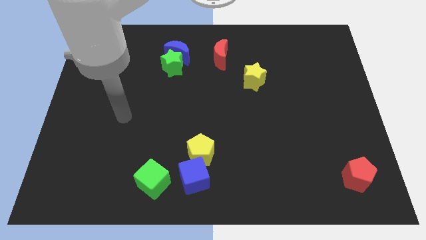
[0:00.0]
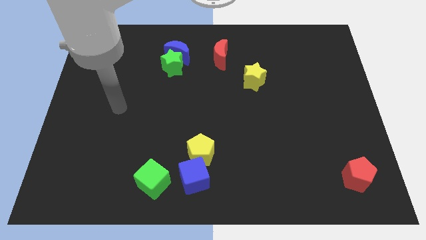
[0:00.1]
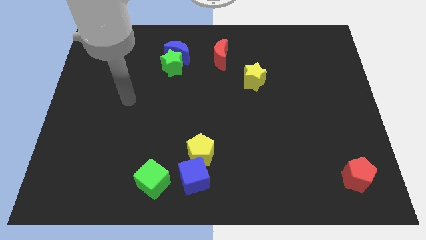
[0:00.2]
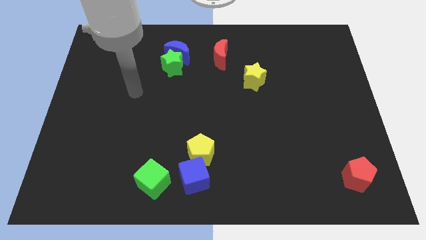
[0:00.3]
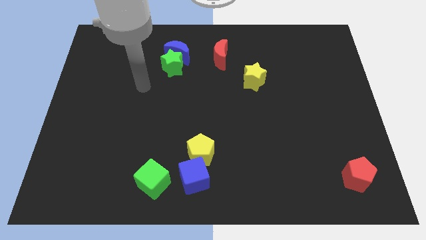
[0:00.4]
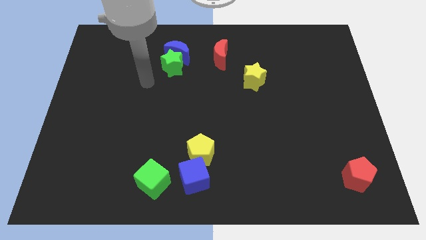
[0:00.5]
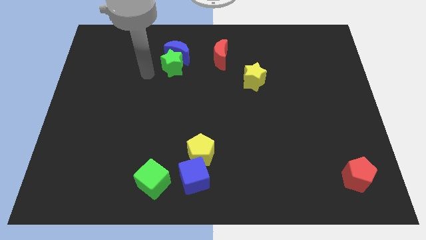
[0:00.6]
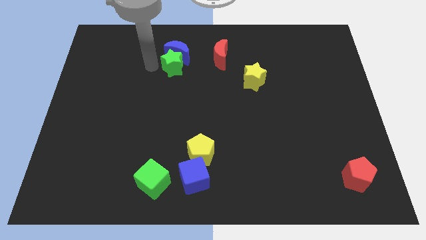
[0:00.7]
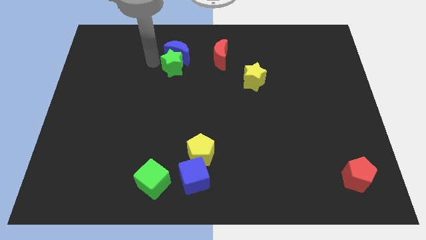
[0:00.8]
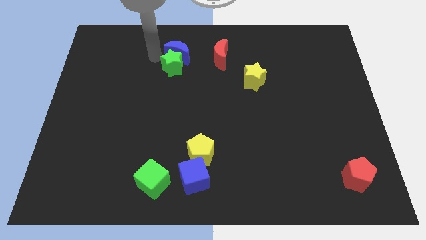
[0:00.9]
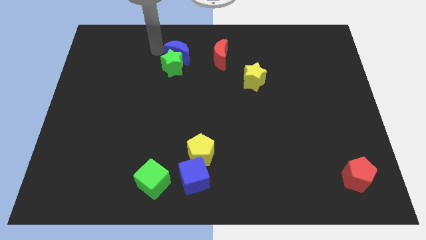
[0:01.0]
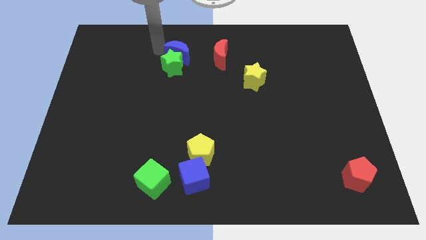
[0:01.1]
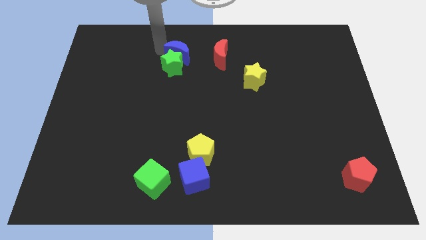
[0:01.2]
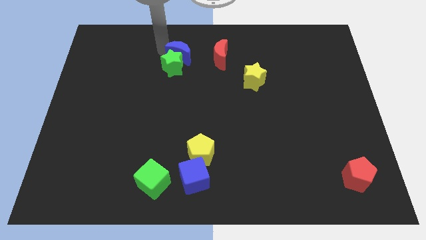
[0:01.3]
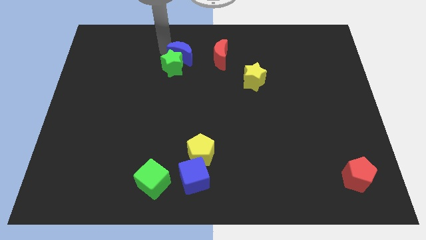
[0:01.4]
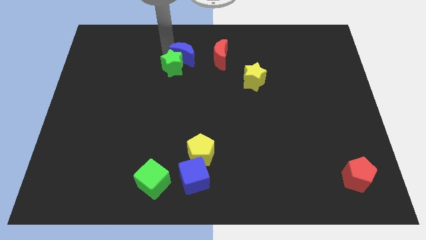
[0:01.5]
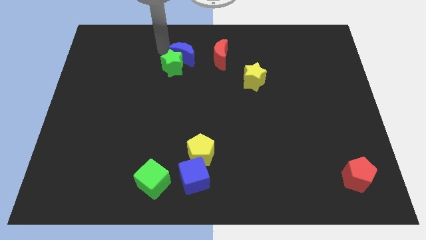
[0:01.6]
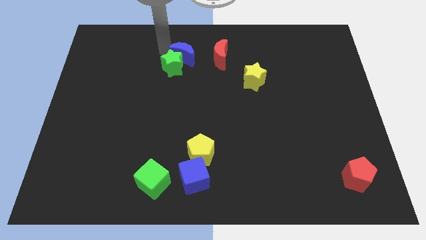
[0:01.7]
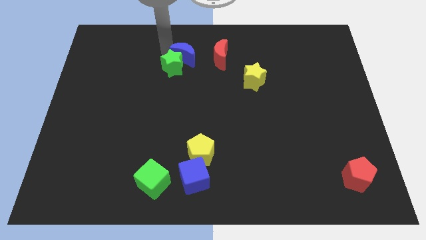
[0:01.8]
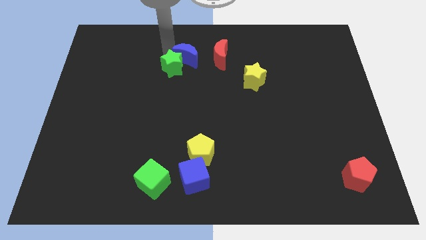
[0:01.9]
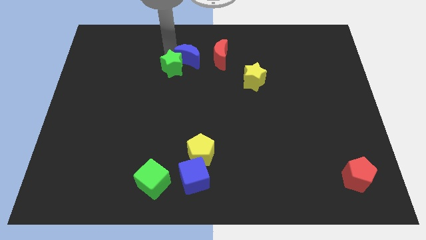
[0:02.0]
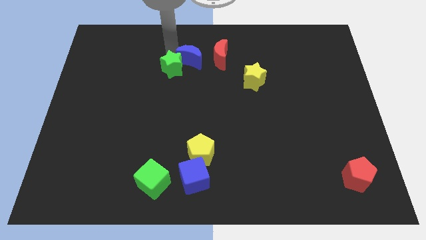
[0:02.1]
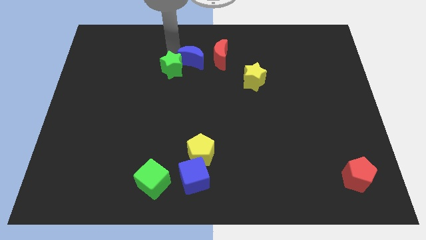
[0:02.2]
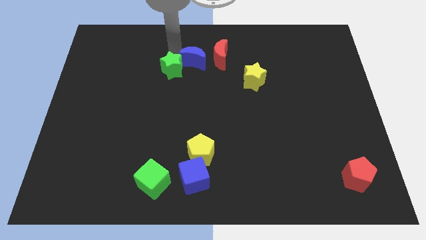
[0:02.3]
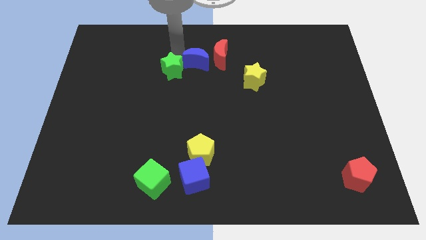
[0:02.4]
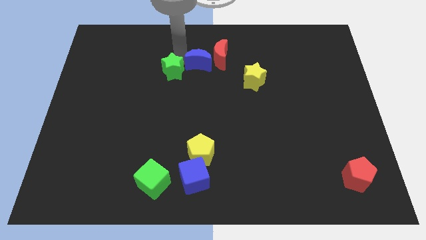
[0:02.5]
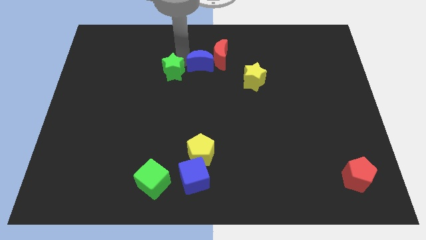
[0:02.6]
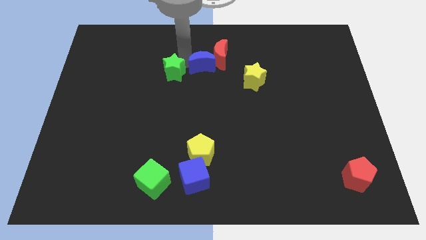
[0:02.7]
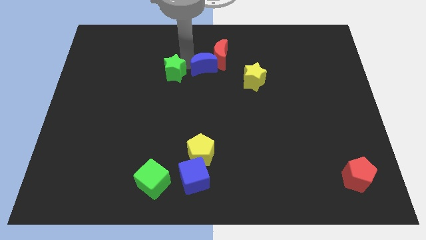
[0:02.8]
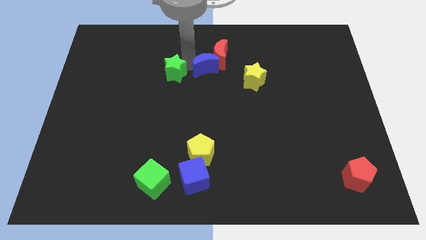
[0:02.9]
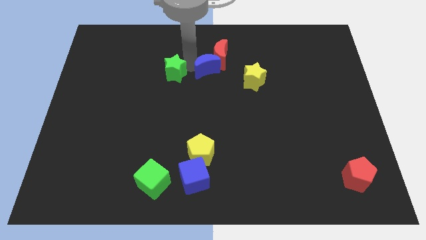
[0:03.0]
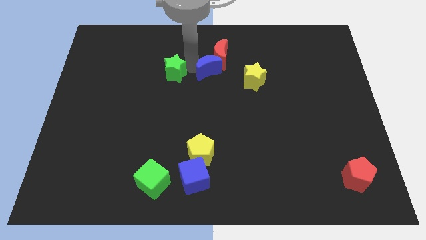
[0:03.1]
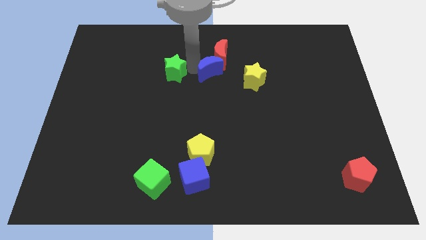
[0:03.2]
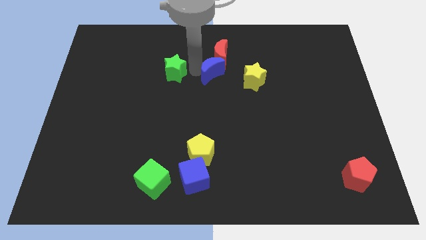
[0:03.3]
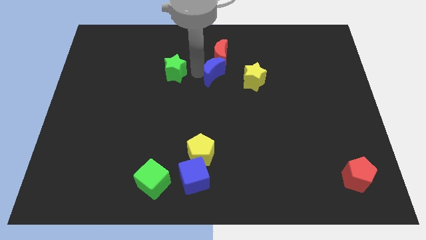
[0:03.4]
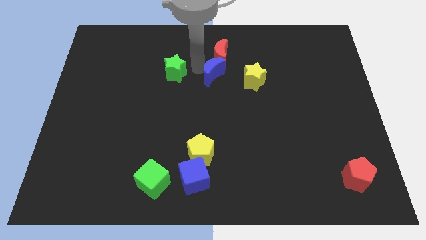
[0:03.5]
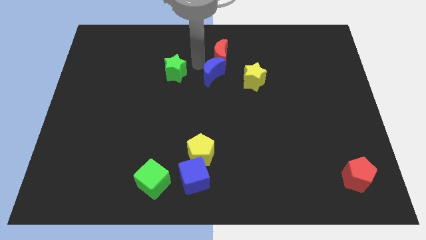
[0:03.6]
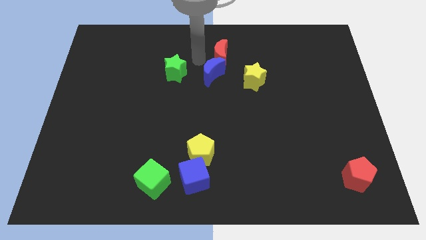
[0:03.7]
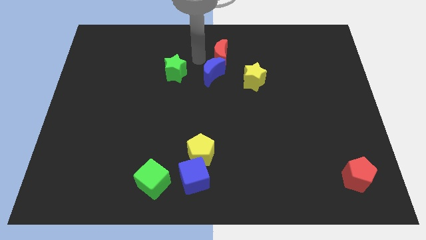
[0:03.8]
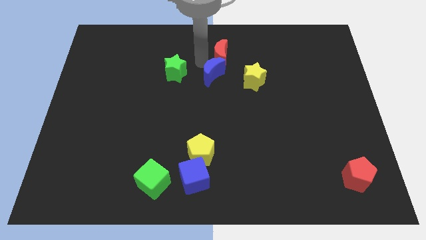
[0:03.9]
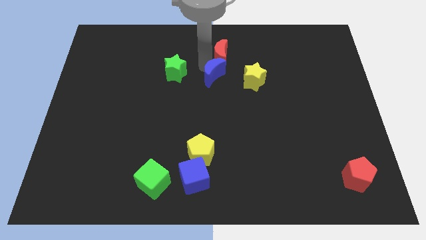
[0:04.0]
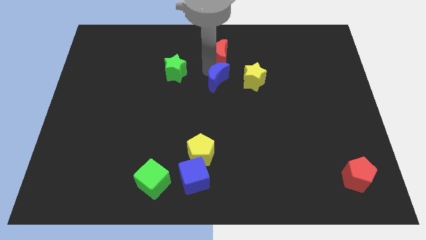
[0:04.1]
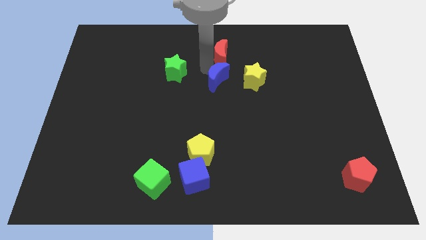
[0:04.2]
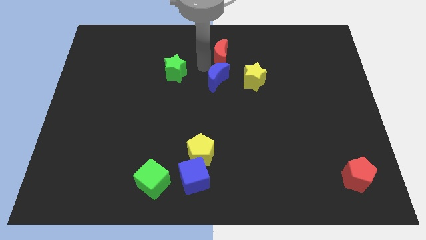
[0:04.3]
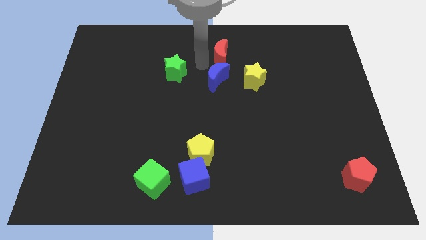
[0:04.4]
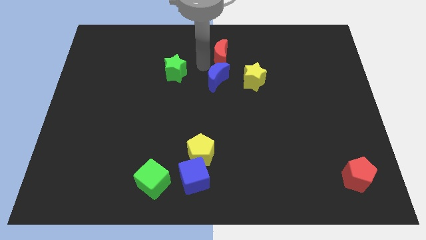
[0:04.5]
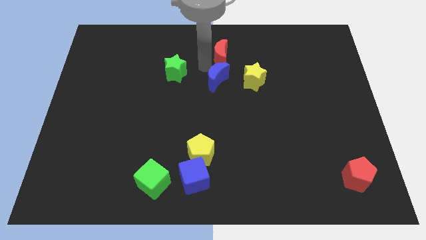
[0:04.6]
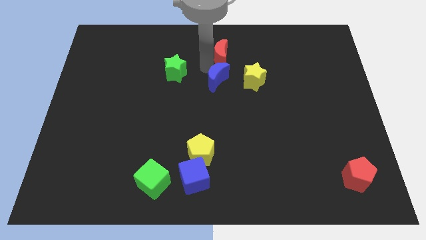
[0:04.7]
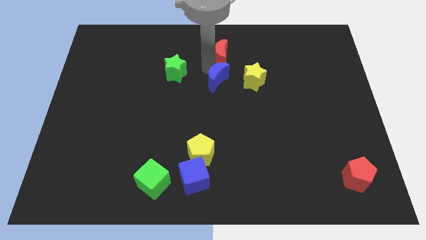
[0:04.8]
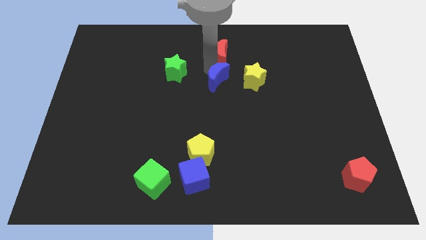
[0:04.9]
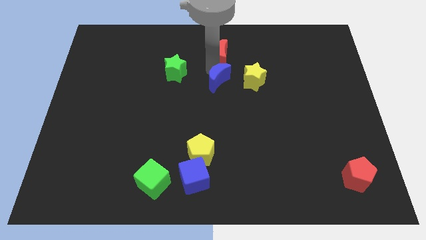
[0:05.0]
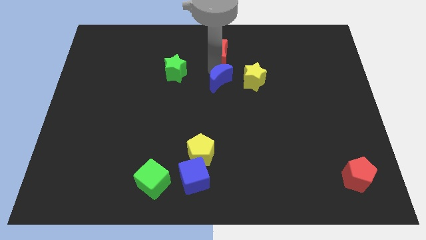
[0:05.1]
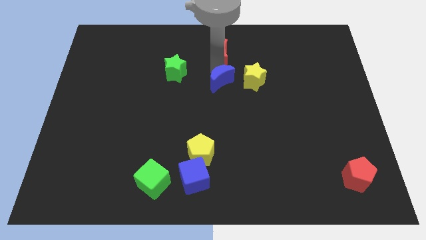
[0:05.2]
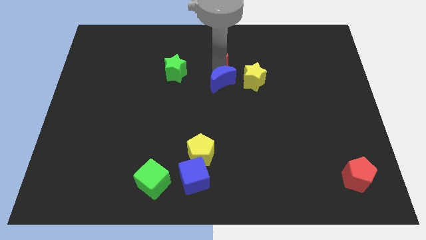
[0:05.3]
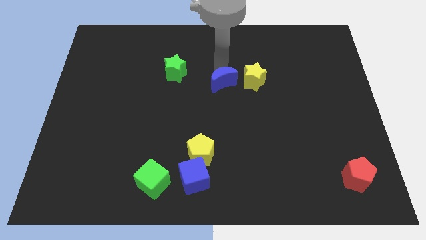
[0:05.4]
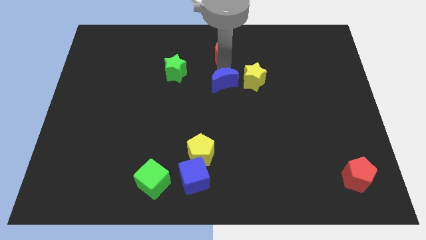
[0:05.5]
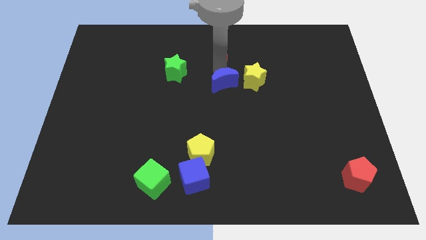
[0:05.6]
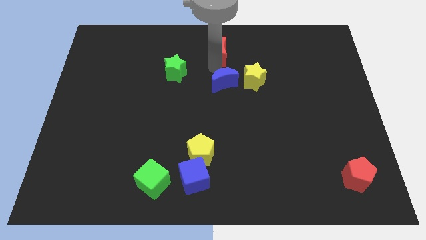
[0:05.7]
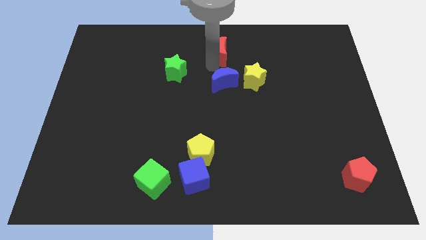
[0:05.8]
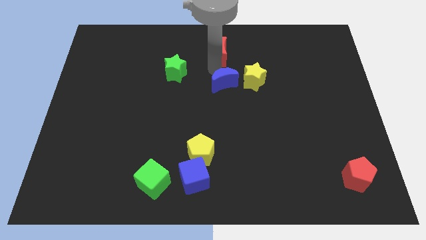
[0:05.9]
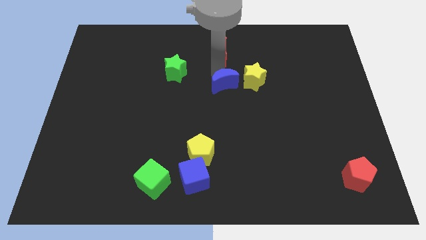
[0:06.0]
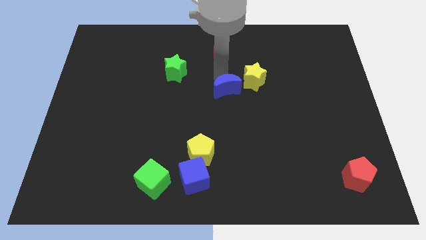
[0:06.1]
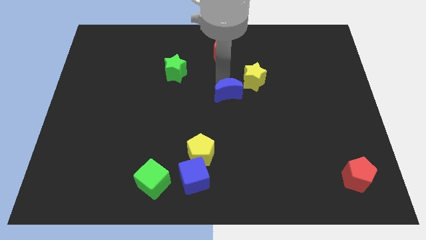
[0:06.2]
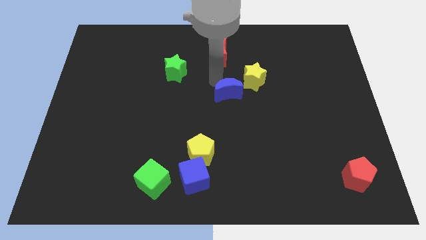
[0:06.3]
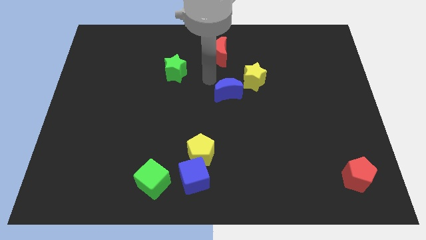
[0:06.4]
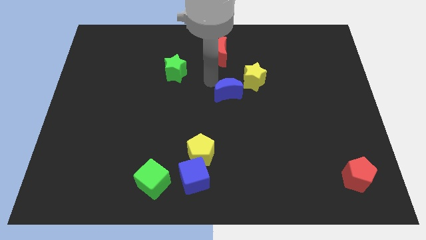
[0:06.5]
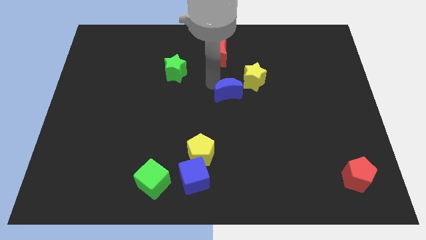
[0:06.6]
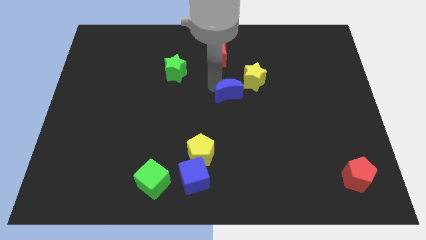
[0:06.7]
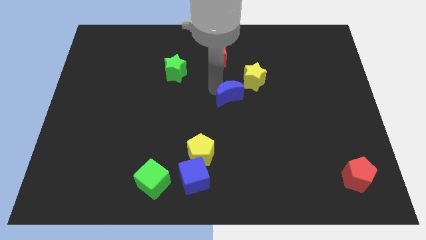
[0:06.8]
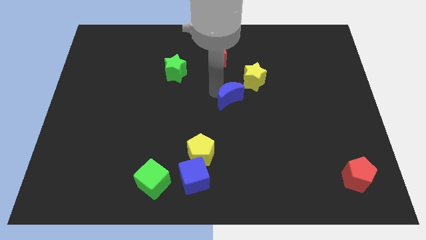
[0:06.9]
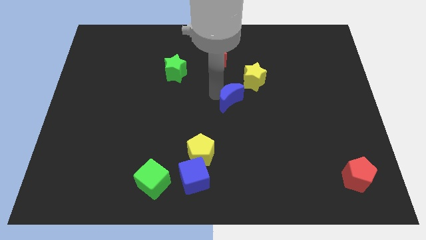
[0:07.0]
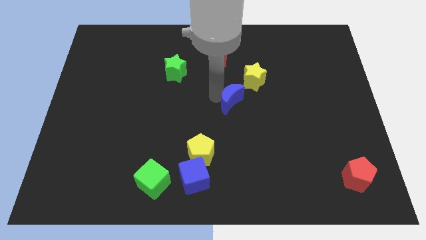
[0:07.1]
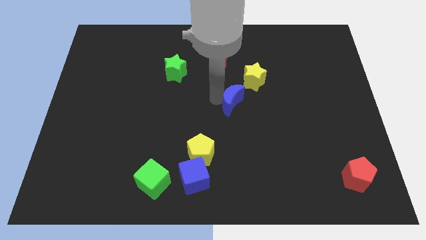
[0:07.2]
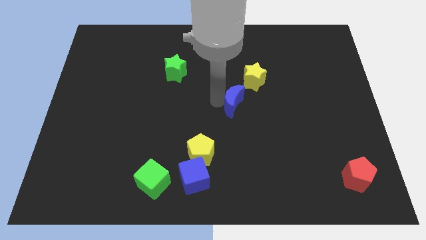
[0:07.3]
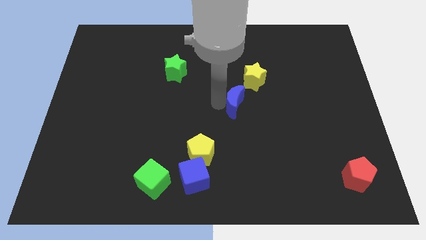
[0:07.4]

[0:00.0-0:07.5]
push the blue moon to the bottom of the yellow star
